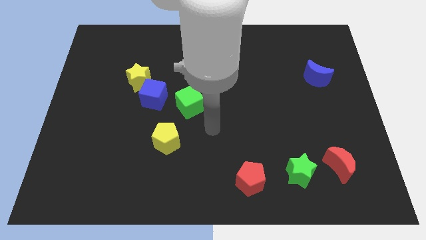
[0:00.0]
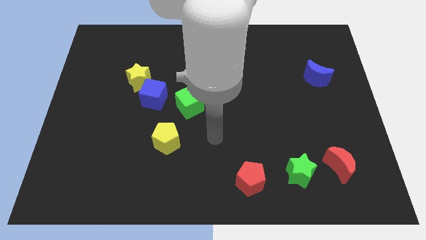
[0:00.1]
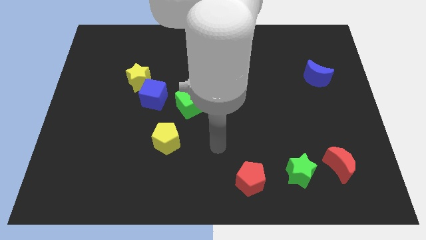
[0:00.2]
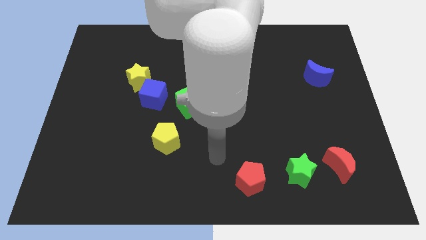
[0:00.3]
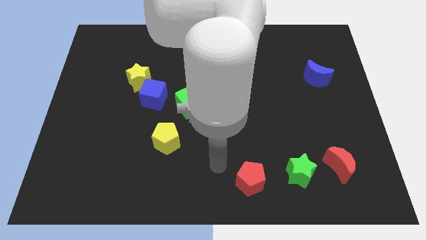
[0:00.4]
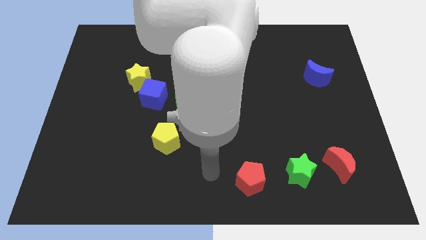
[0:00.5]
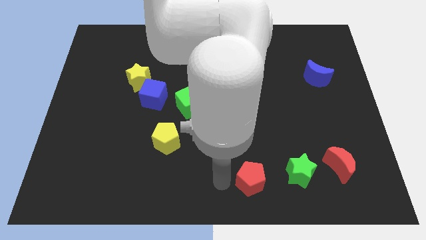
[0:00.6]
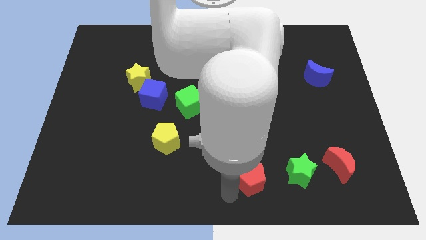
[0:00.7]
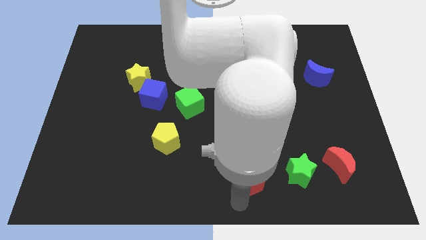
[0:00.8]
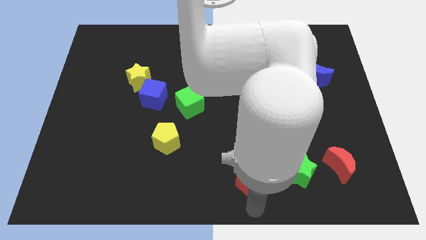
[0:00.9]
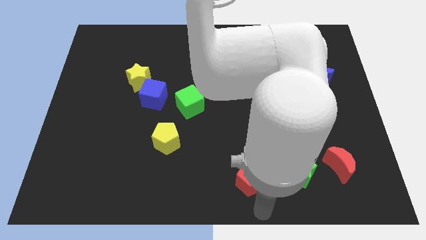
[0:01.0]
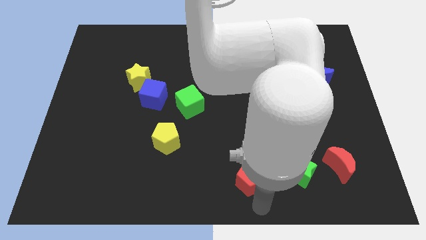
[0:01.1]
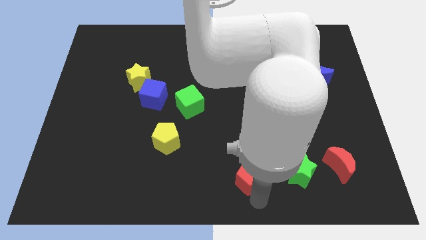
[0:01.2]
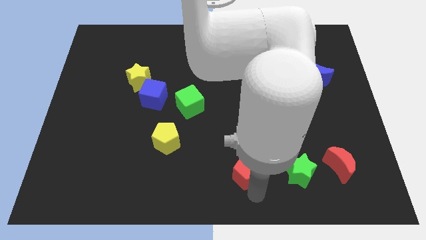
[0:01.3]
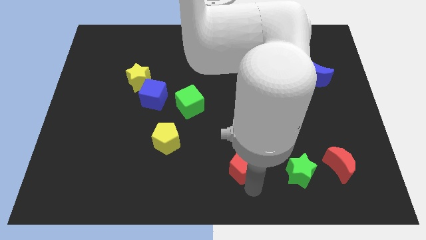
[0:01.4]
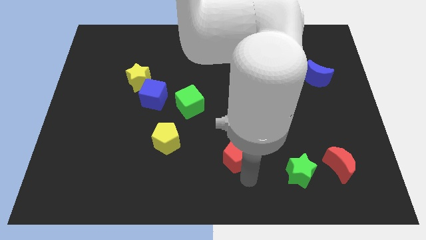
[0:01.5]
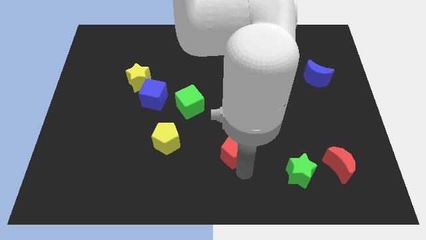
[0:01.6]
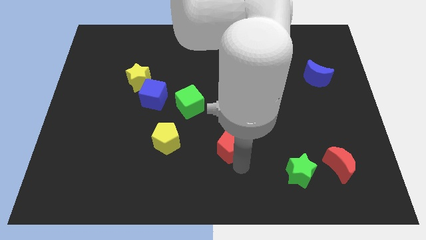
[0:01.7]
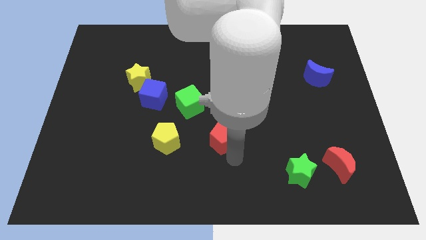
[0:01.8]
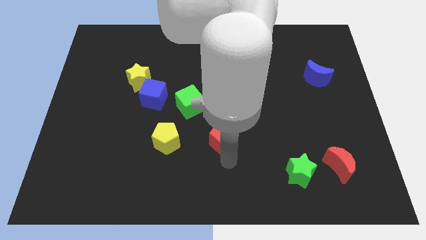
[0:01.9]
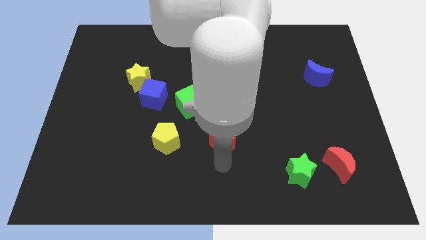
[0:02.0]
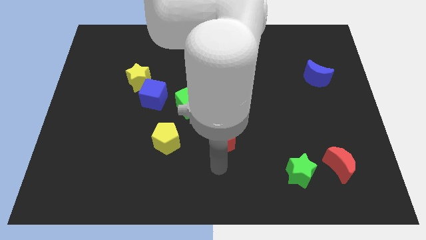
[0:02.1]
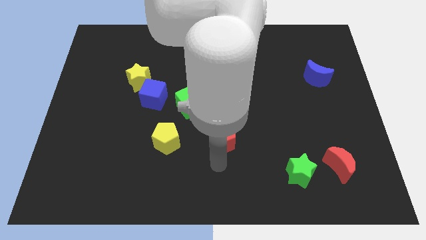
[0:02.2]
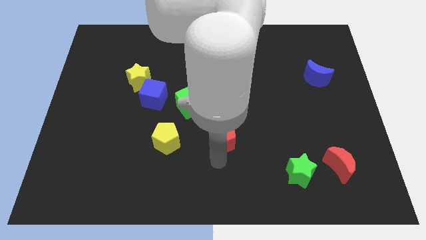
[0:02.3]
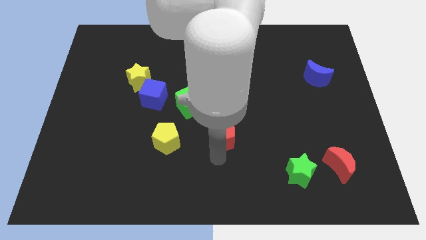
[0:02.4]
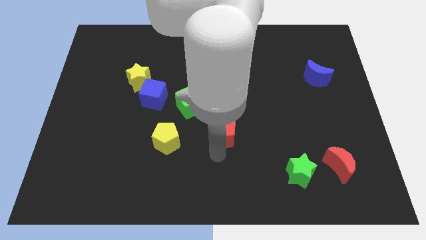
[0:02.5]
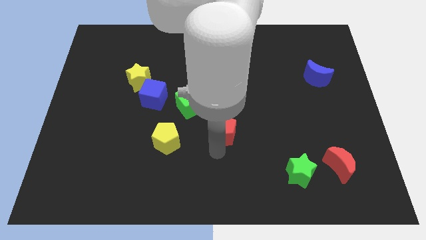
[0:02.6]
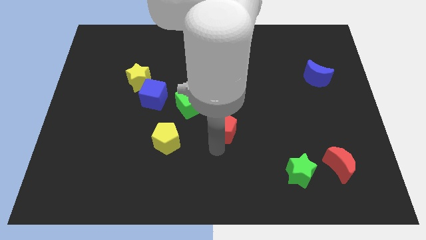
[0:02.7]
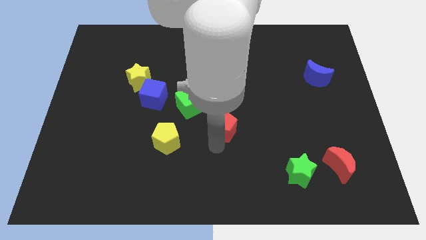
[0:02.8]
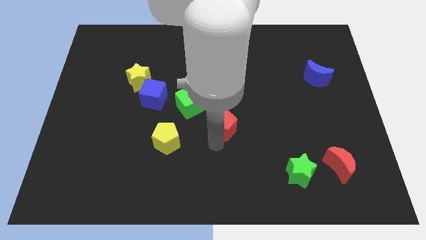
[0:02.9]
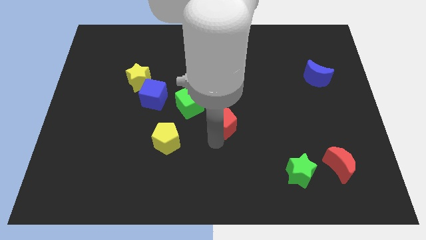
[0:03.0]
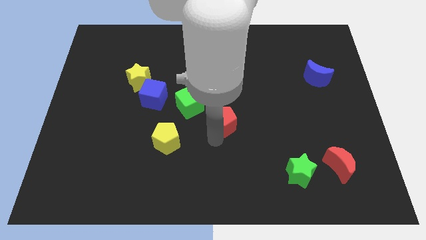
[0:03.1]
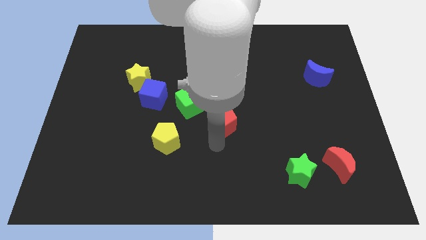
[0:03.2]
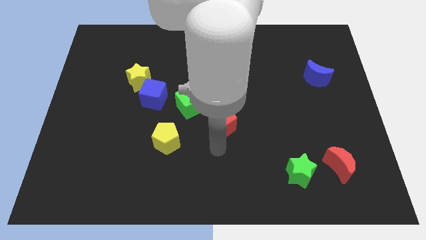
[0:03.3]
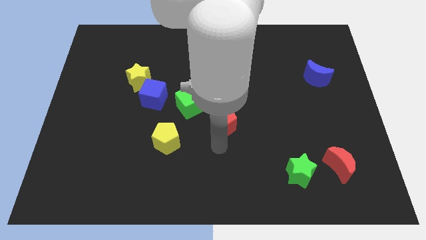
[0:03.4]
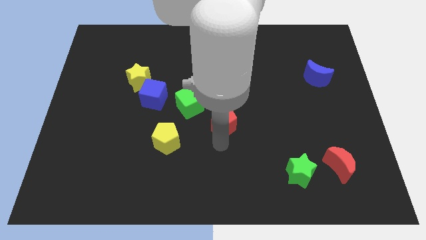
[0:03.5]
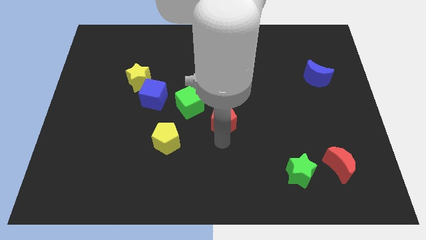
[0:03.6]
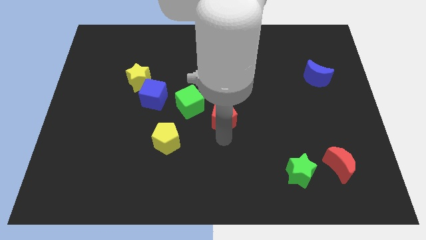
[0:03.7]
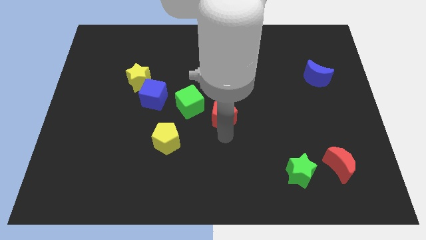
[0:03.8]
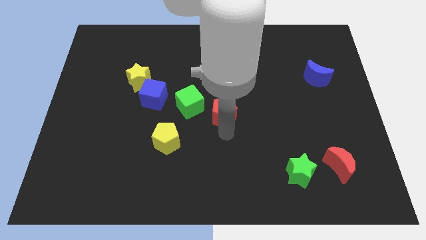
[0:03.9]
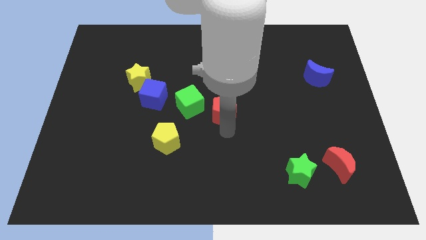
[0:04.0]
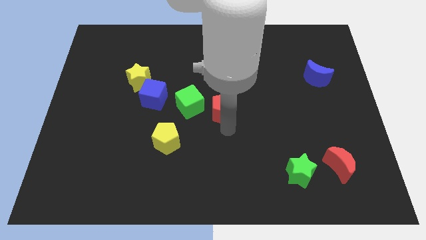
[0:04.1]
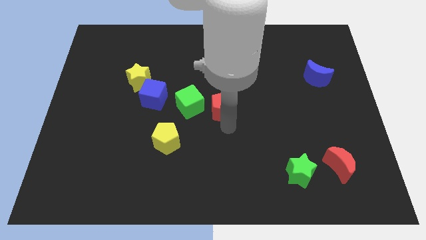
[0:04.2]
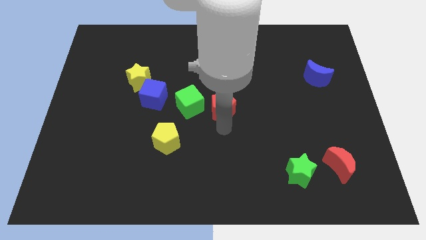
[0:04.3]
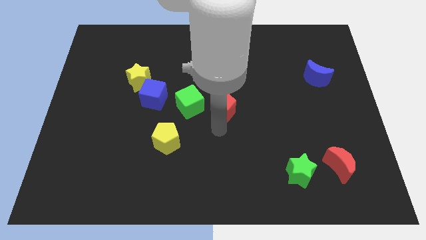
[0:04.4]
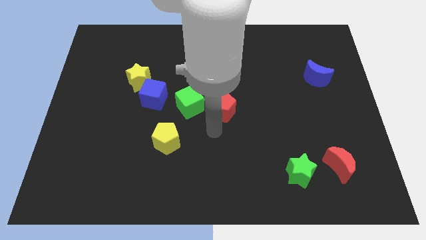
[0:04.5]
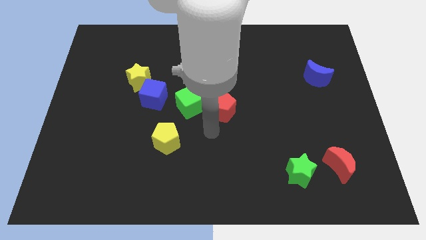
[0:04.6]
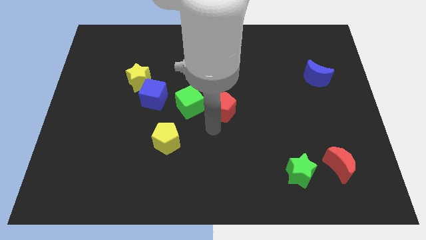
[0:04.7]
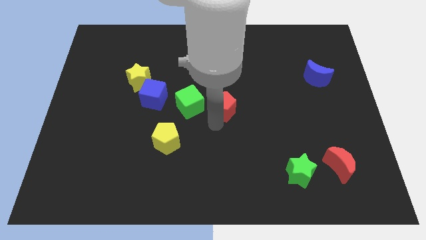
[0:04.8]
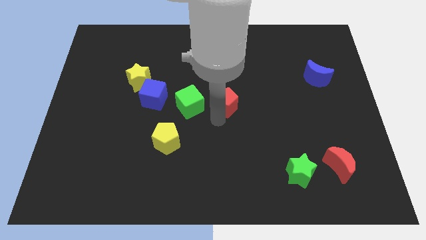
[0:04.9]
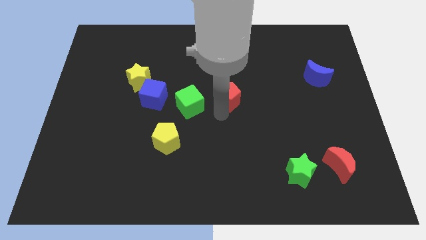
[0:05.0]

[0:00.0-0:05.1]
push the red pentagon up

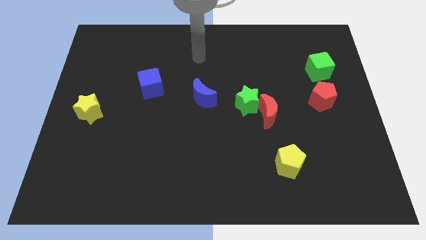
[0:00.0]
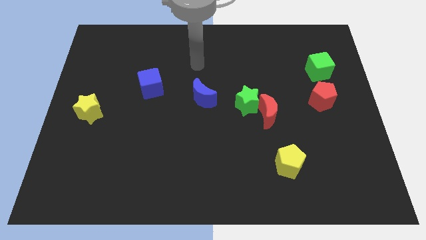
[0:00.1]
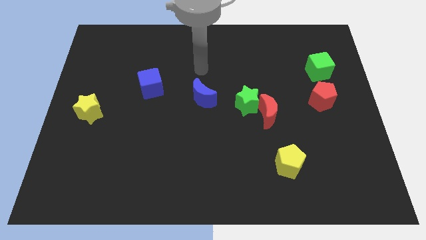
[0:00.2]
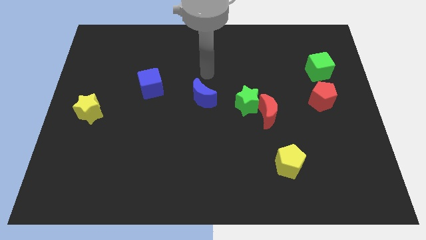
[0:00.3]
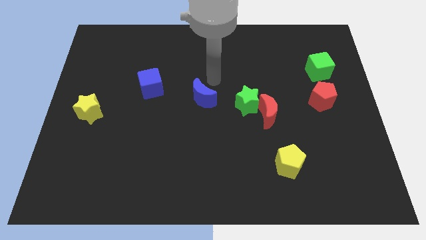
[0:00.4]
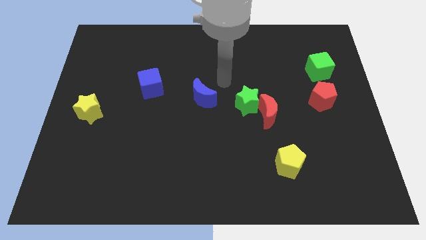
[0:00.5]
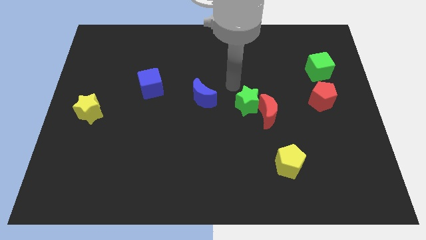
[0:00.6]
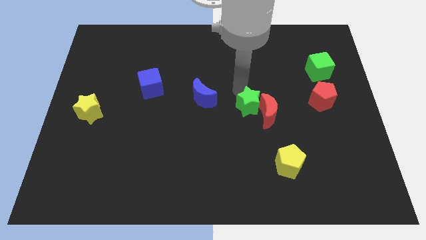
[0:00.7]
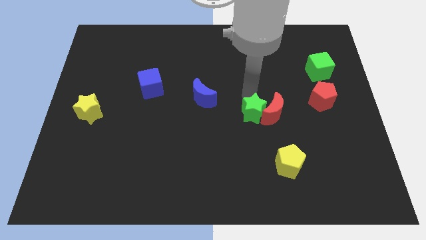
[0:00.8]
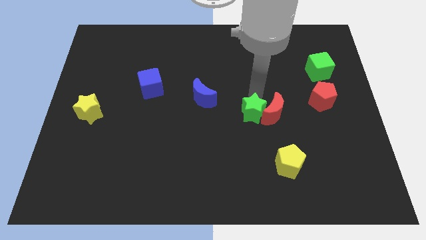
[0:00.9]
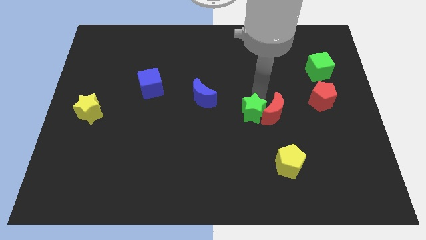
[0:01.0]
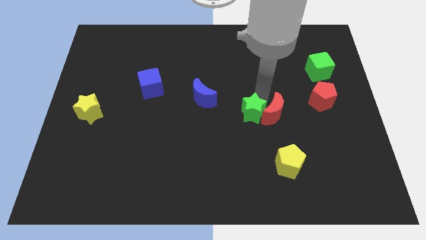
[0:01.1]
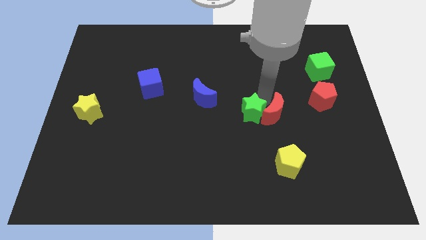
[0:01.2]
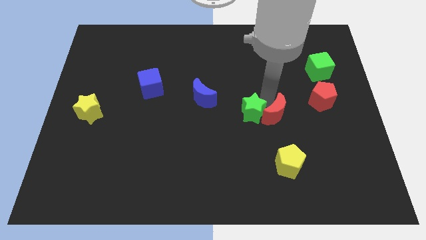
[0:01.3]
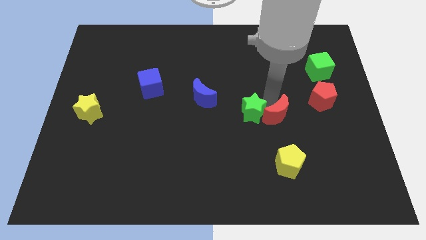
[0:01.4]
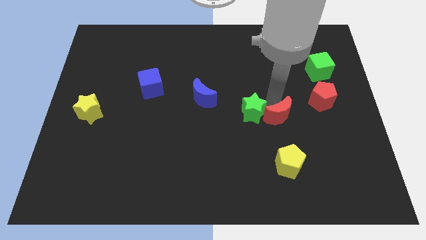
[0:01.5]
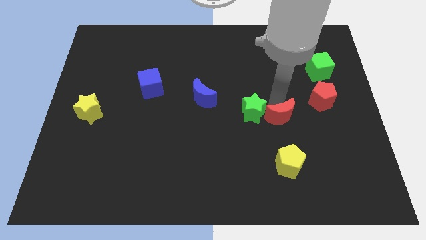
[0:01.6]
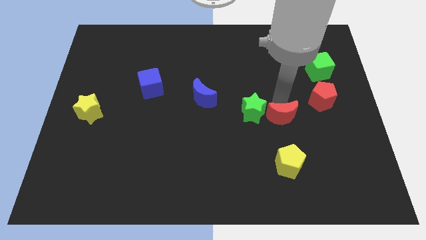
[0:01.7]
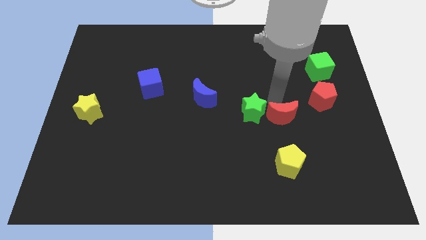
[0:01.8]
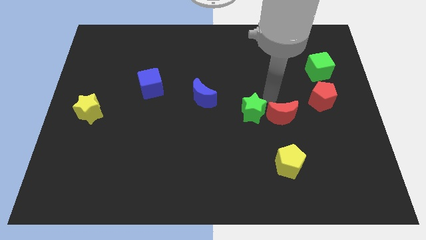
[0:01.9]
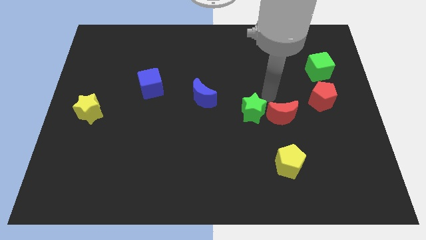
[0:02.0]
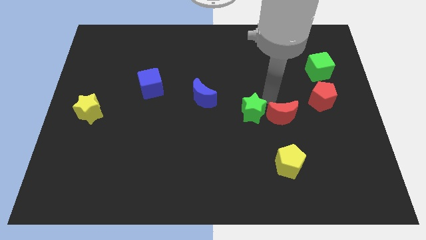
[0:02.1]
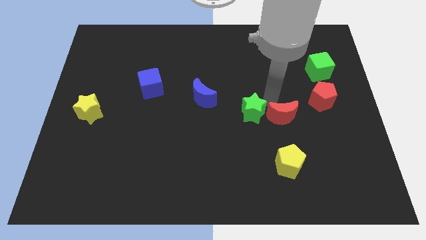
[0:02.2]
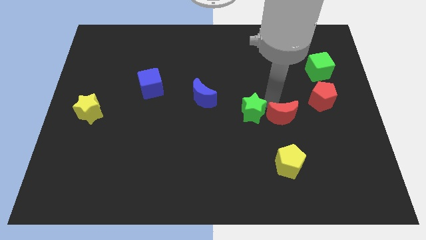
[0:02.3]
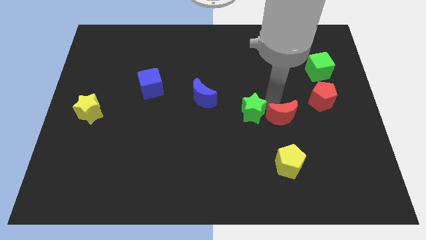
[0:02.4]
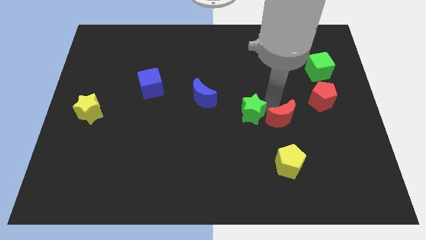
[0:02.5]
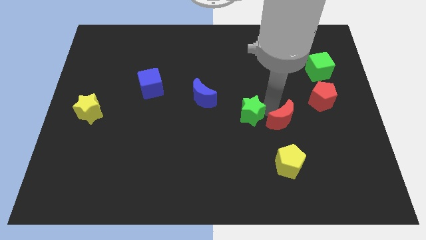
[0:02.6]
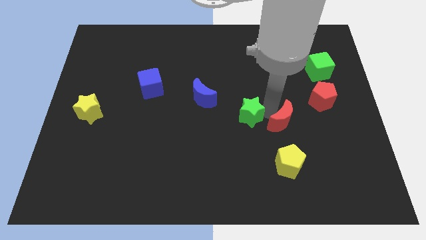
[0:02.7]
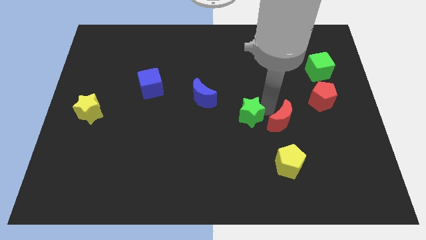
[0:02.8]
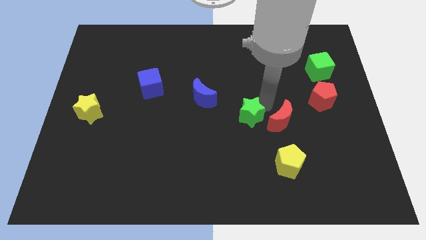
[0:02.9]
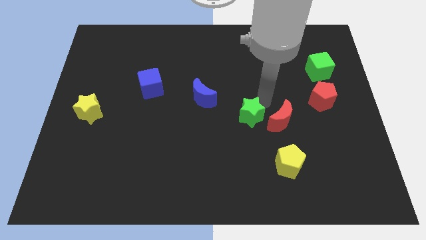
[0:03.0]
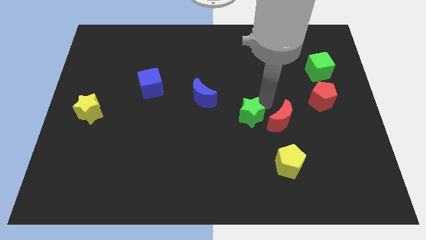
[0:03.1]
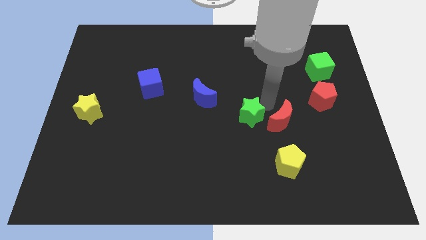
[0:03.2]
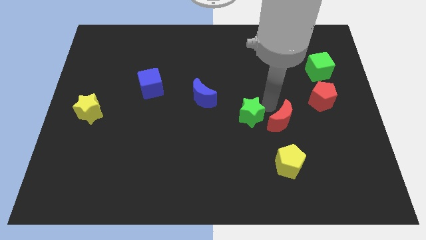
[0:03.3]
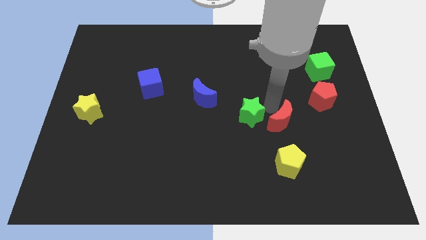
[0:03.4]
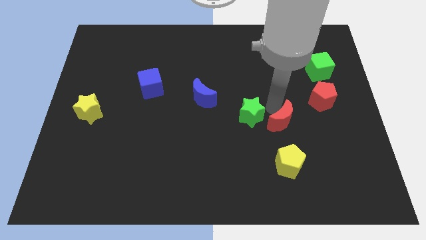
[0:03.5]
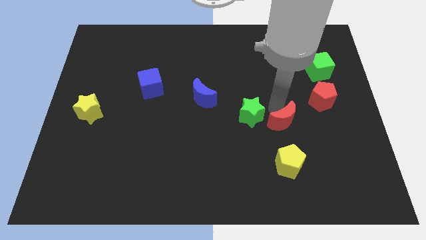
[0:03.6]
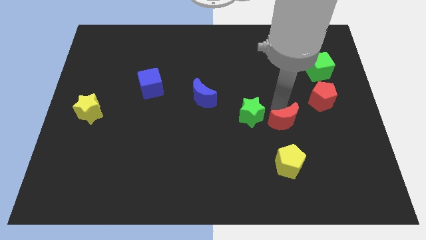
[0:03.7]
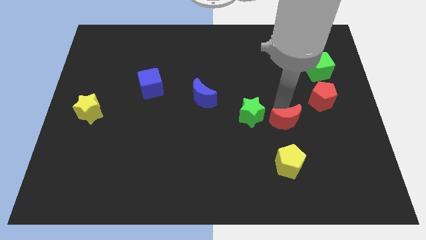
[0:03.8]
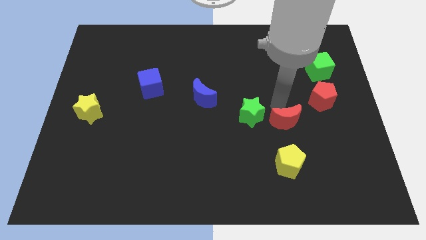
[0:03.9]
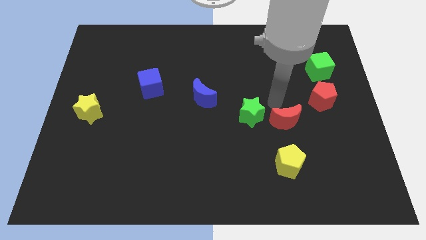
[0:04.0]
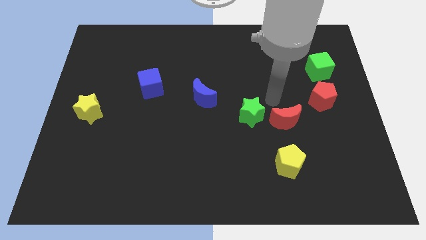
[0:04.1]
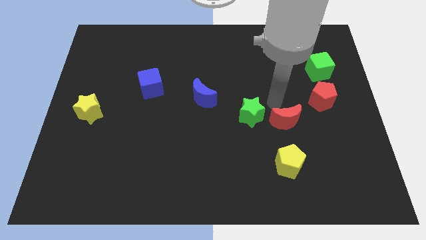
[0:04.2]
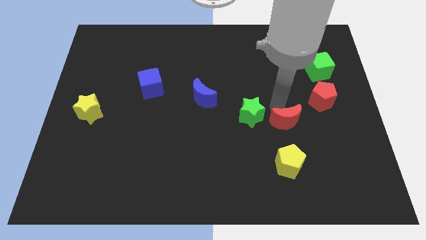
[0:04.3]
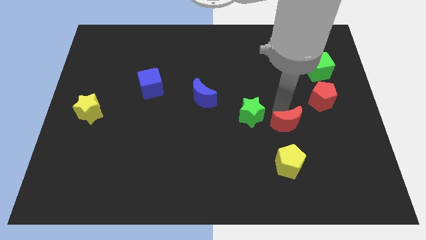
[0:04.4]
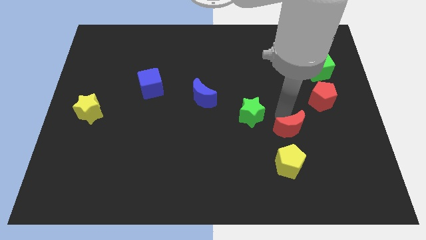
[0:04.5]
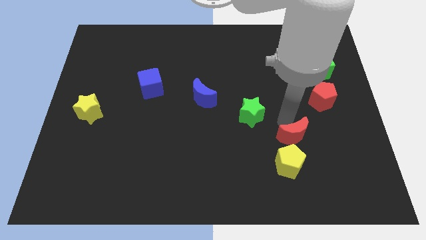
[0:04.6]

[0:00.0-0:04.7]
slightly slide the red moon down and to the right diagonally
